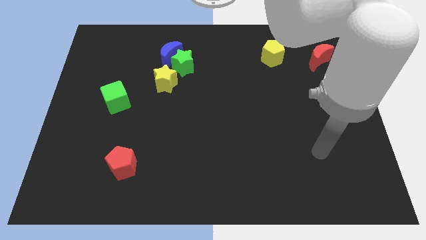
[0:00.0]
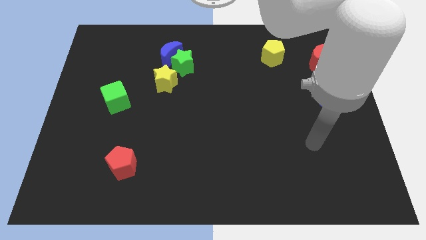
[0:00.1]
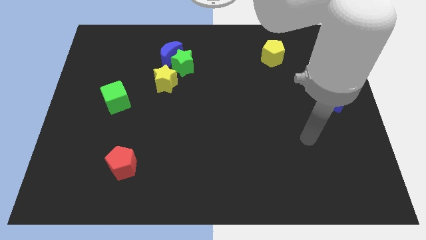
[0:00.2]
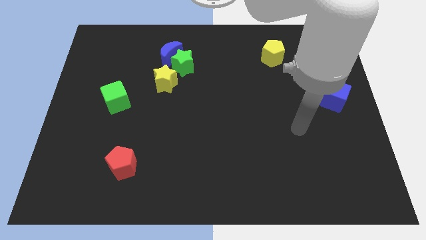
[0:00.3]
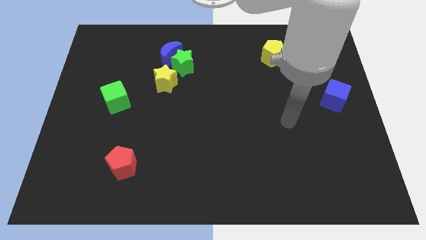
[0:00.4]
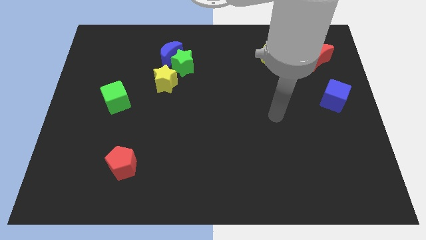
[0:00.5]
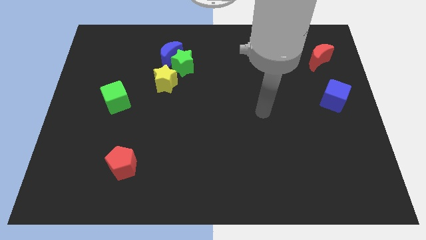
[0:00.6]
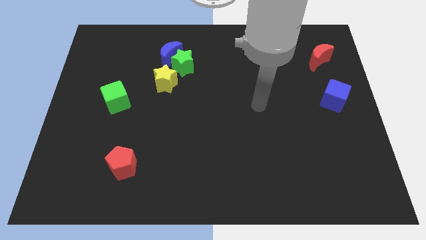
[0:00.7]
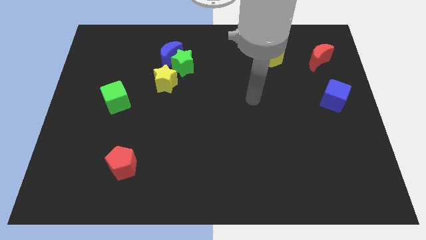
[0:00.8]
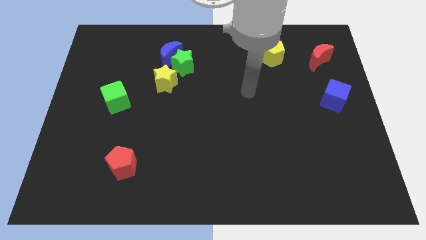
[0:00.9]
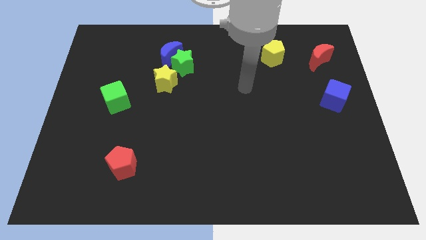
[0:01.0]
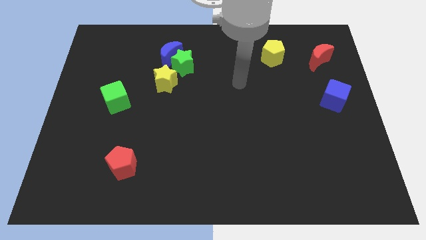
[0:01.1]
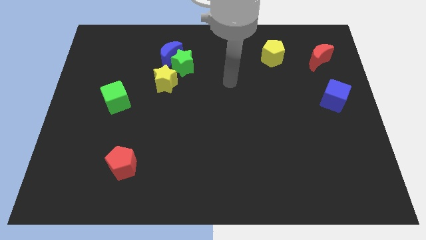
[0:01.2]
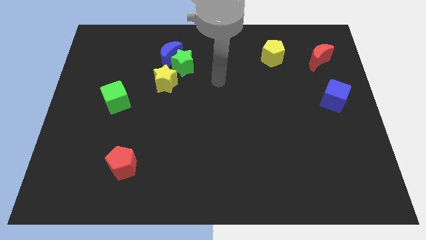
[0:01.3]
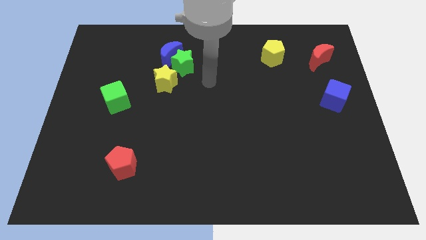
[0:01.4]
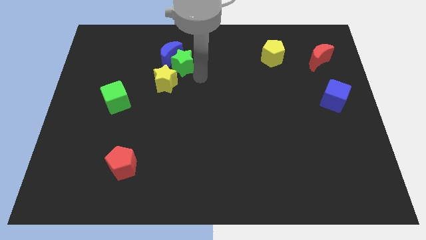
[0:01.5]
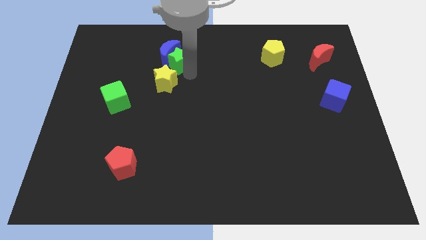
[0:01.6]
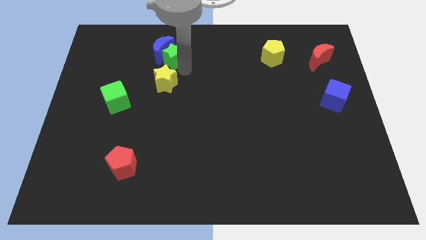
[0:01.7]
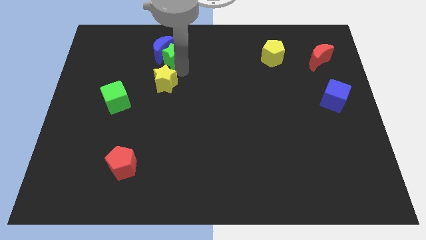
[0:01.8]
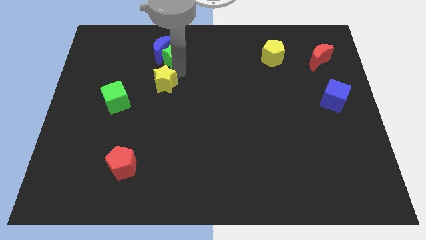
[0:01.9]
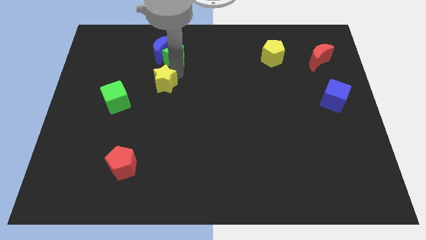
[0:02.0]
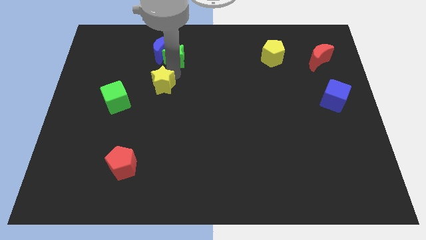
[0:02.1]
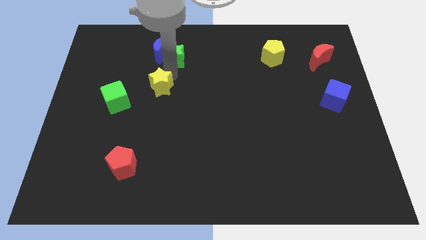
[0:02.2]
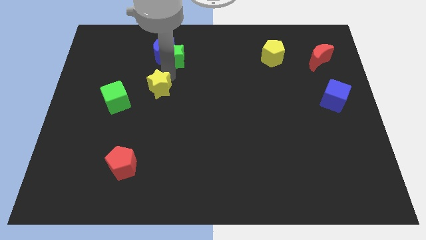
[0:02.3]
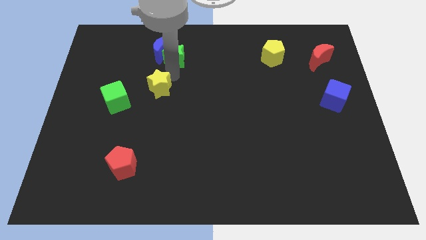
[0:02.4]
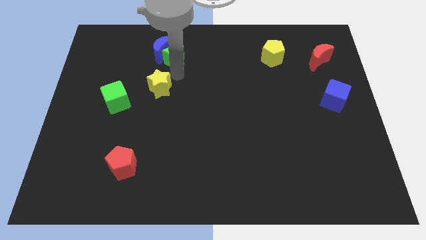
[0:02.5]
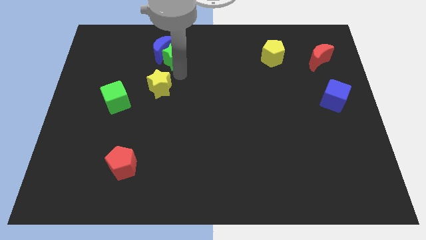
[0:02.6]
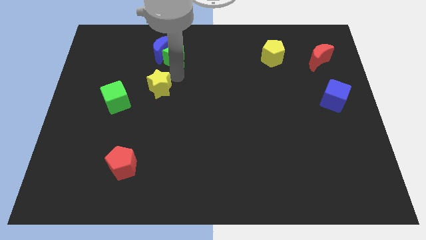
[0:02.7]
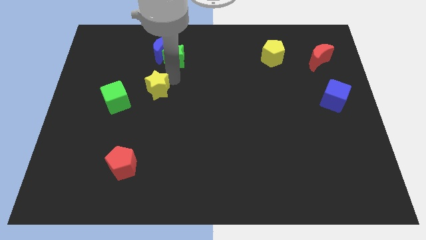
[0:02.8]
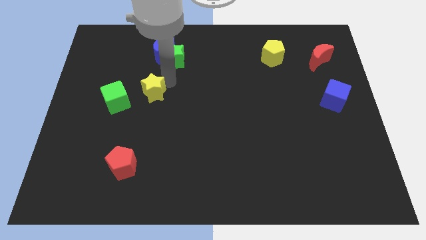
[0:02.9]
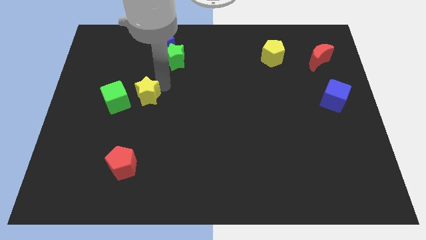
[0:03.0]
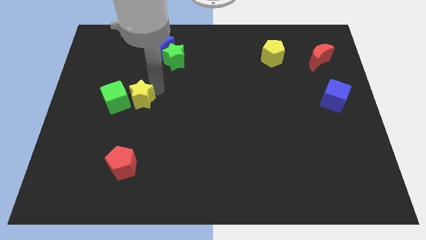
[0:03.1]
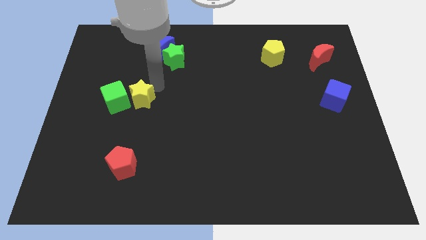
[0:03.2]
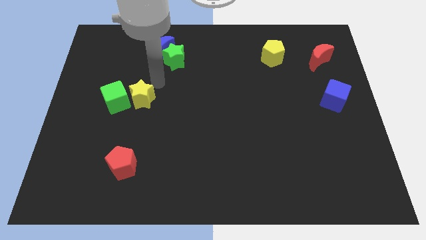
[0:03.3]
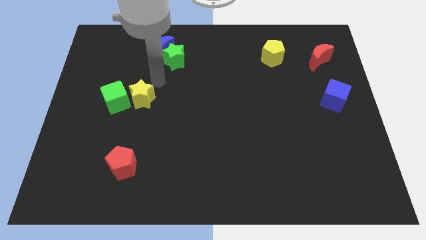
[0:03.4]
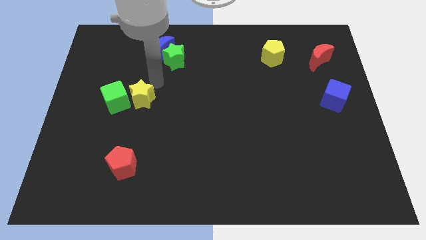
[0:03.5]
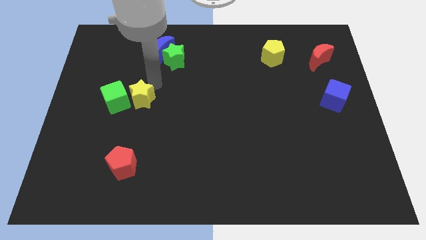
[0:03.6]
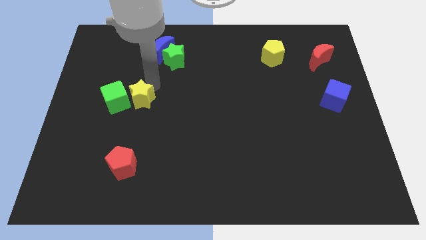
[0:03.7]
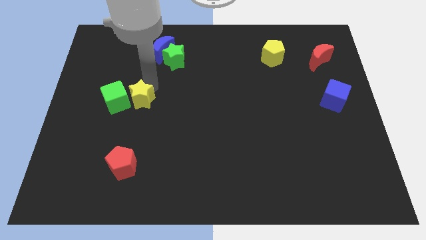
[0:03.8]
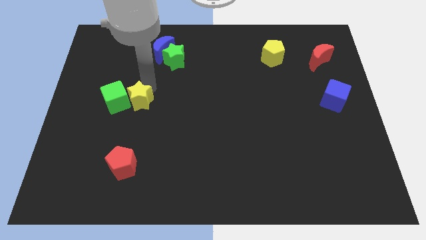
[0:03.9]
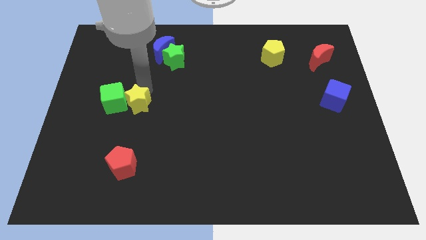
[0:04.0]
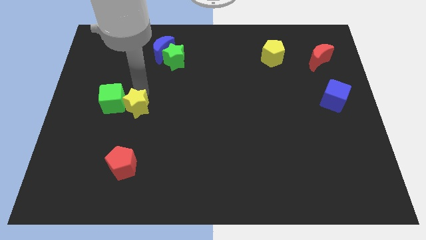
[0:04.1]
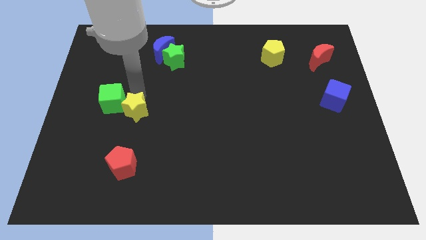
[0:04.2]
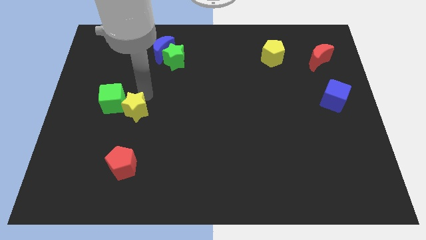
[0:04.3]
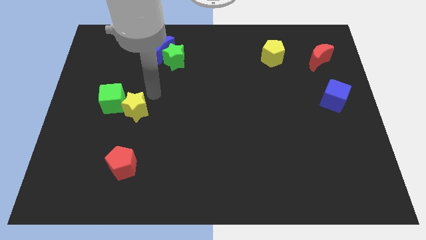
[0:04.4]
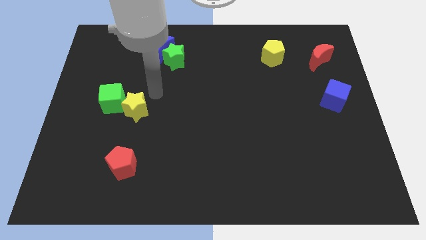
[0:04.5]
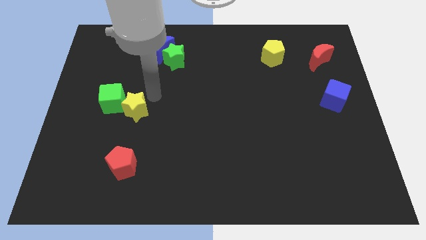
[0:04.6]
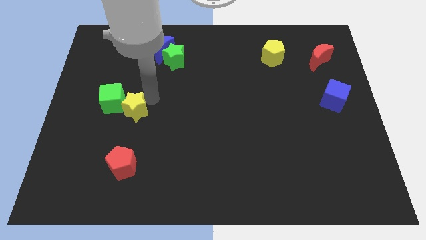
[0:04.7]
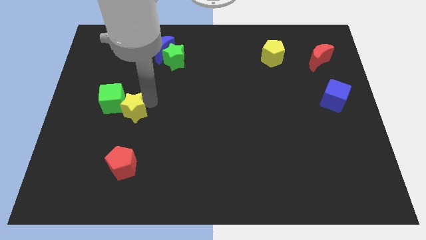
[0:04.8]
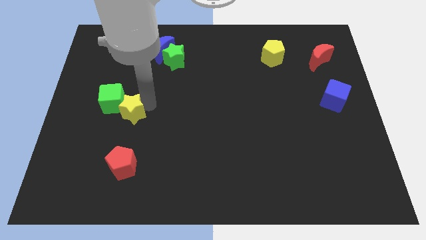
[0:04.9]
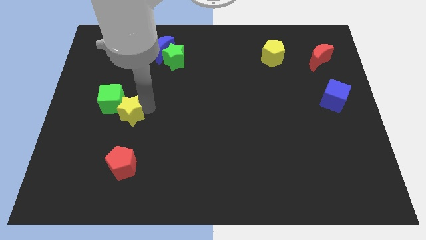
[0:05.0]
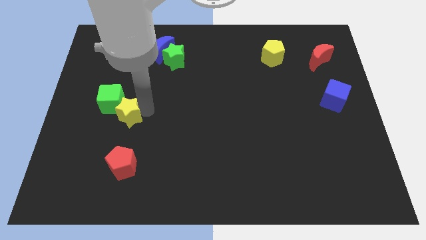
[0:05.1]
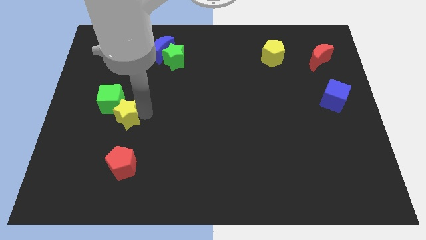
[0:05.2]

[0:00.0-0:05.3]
move the yellow star to the bottom side of the green cube

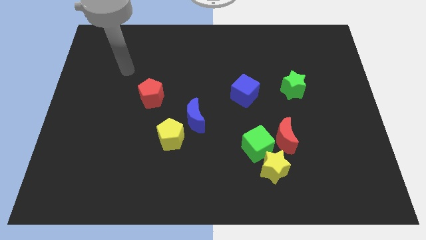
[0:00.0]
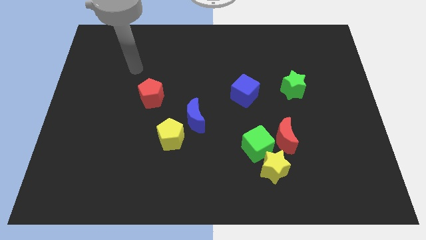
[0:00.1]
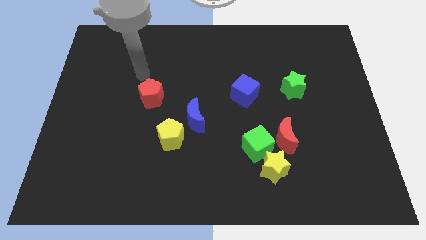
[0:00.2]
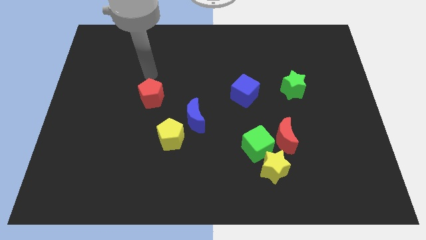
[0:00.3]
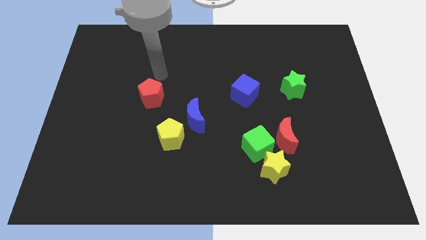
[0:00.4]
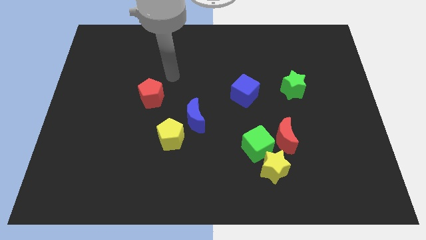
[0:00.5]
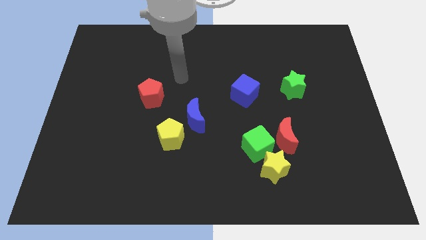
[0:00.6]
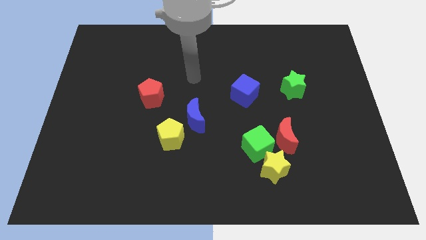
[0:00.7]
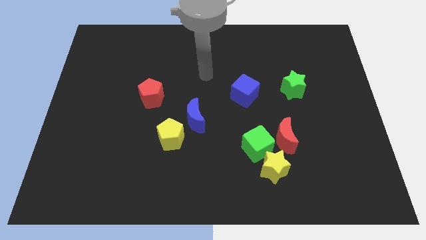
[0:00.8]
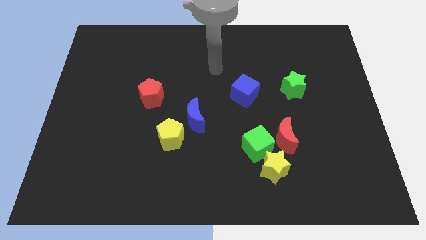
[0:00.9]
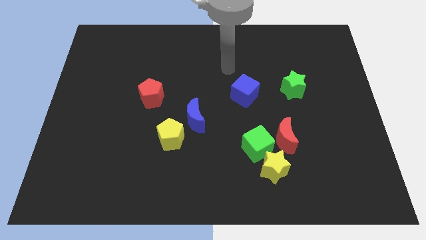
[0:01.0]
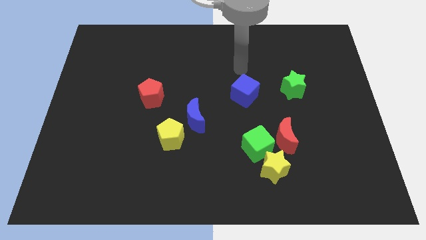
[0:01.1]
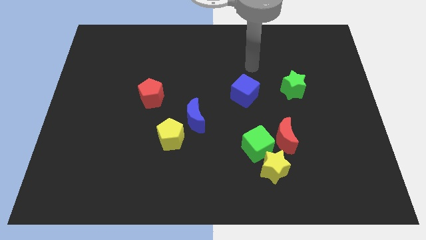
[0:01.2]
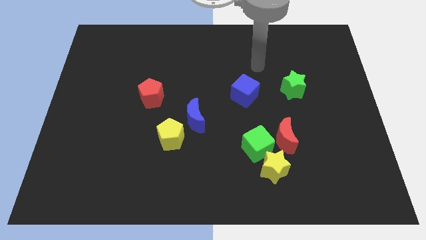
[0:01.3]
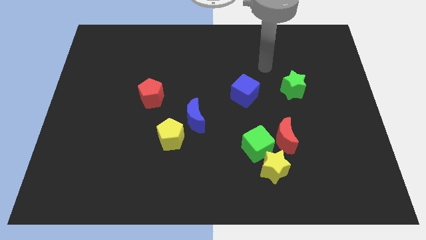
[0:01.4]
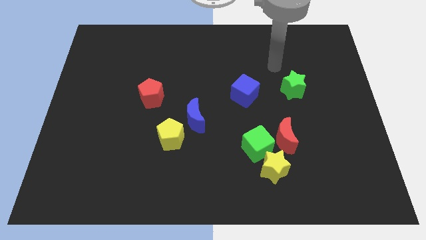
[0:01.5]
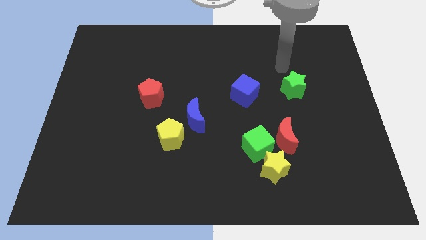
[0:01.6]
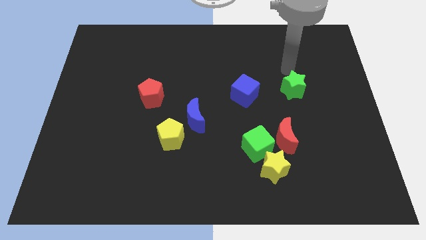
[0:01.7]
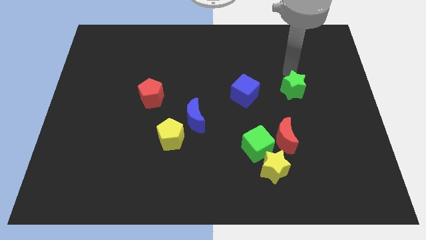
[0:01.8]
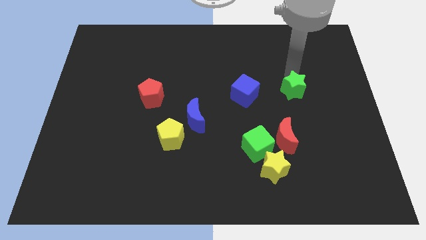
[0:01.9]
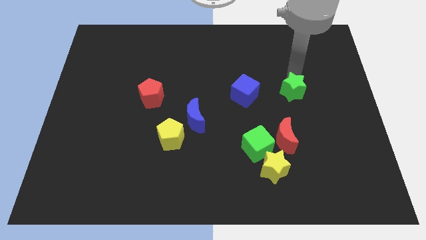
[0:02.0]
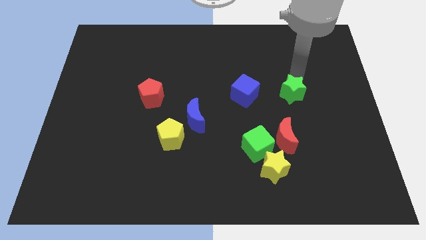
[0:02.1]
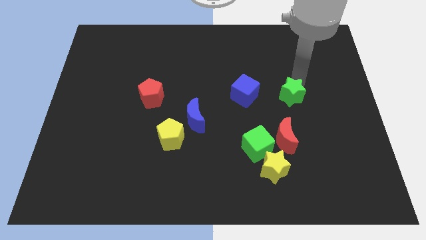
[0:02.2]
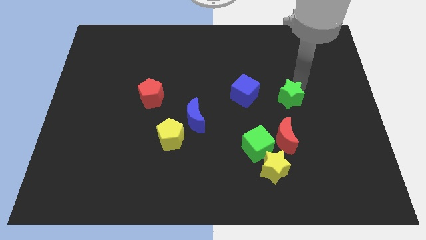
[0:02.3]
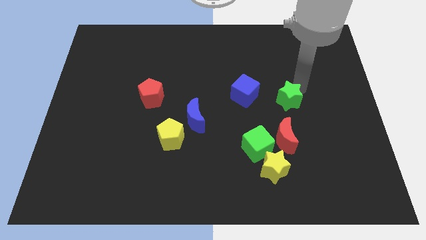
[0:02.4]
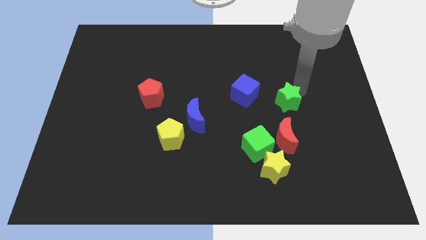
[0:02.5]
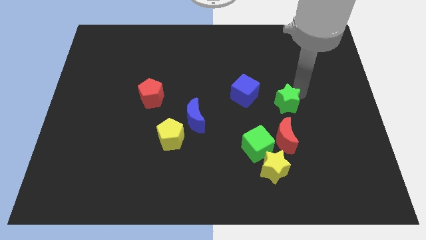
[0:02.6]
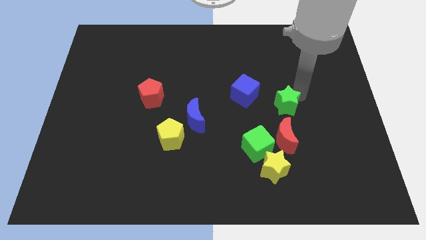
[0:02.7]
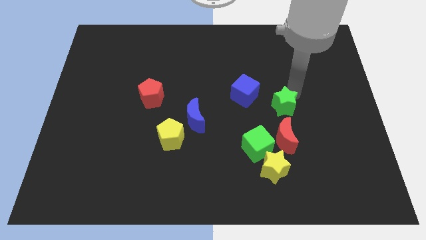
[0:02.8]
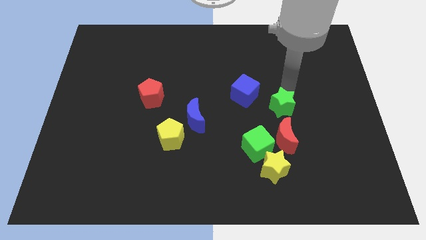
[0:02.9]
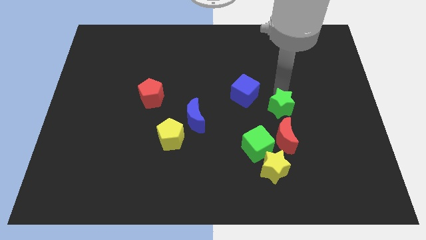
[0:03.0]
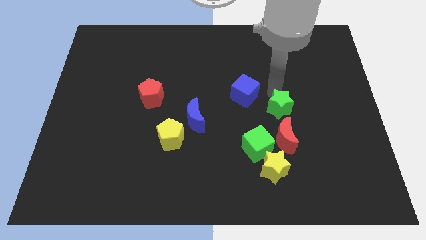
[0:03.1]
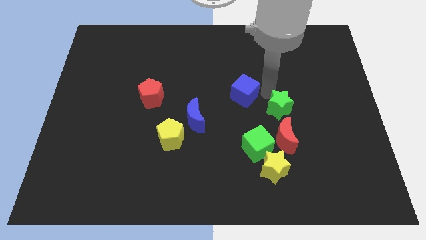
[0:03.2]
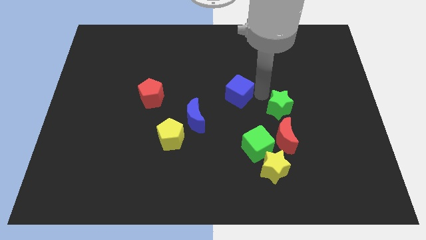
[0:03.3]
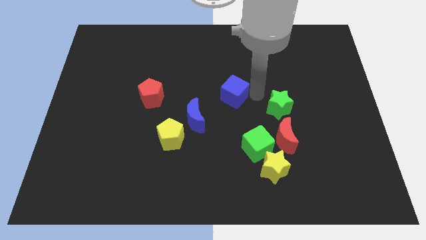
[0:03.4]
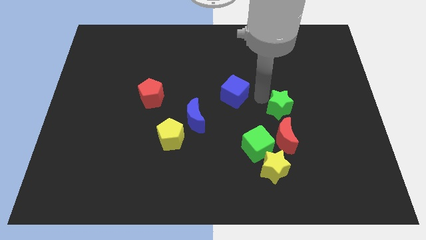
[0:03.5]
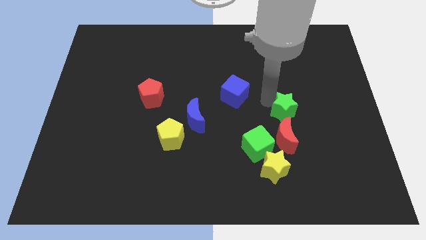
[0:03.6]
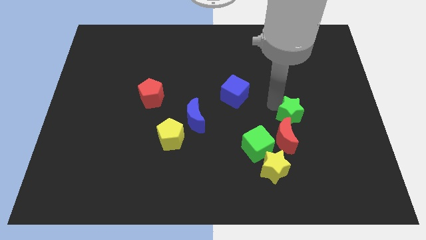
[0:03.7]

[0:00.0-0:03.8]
push the green star to the top right of the red moon
